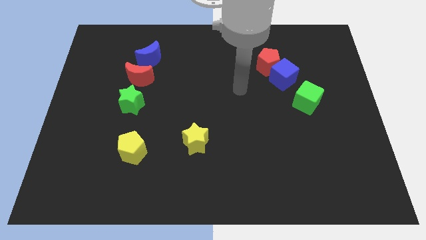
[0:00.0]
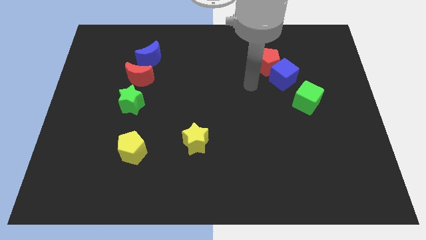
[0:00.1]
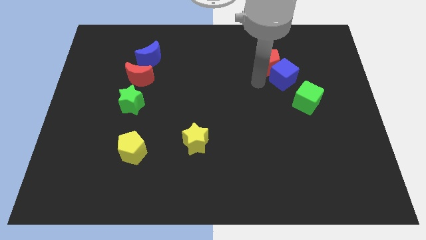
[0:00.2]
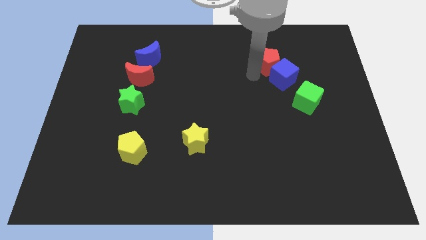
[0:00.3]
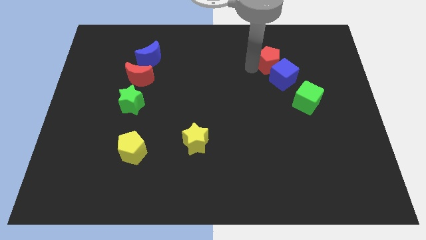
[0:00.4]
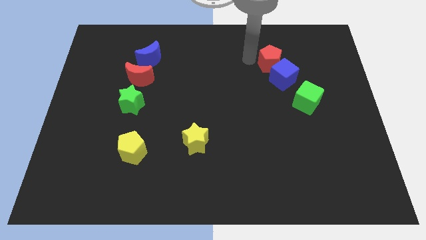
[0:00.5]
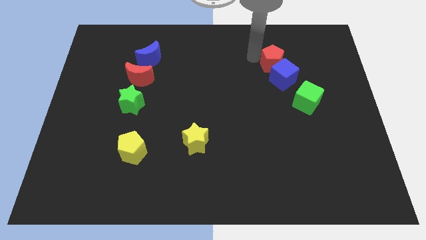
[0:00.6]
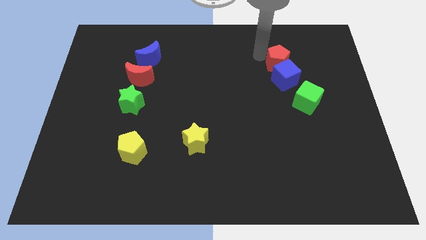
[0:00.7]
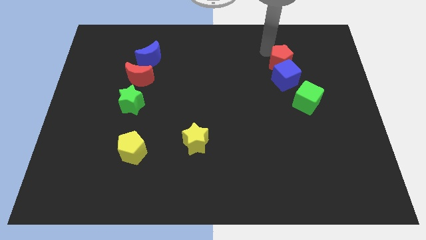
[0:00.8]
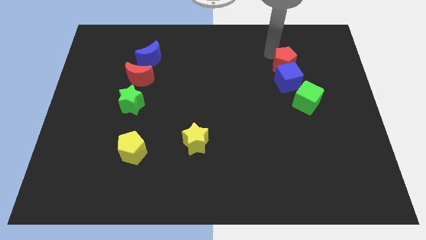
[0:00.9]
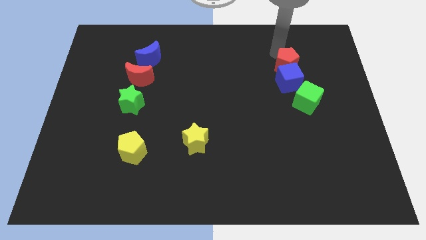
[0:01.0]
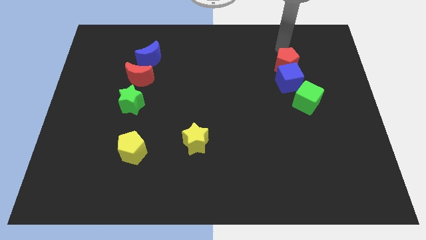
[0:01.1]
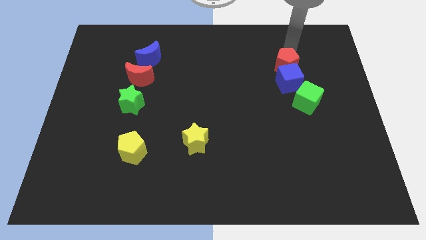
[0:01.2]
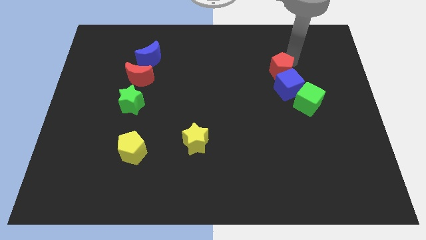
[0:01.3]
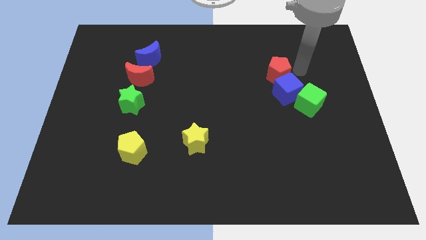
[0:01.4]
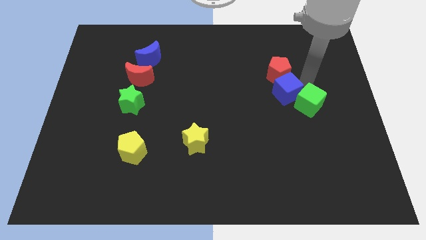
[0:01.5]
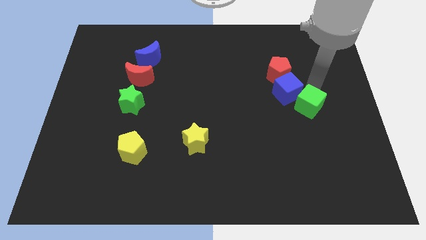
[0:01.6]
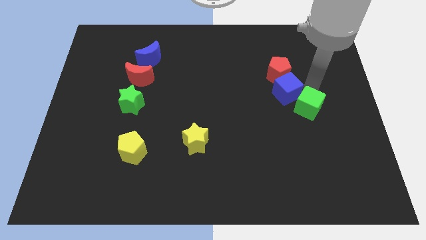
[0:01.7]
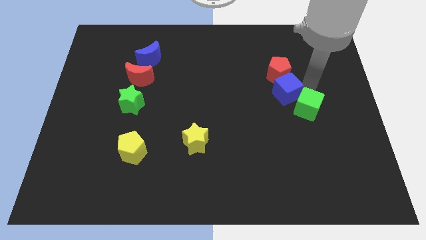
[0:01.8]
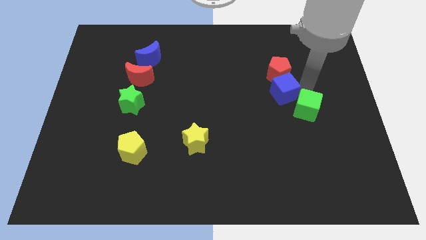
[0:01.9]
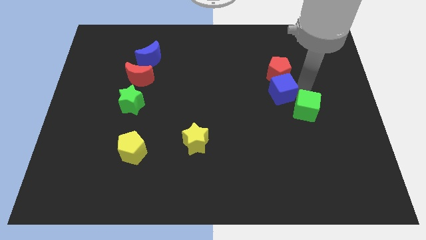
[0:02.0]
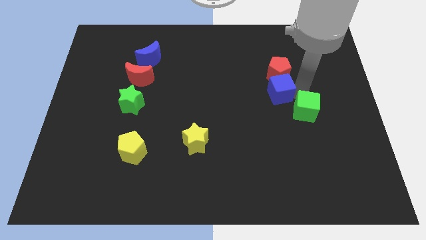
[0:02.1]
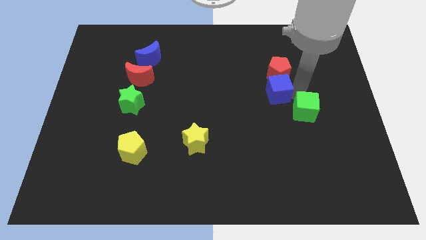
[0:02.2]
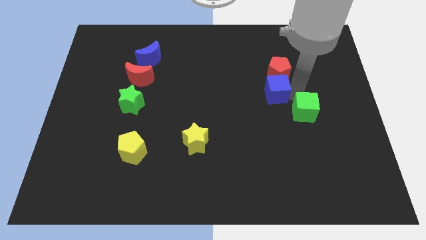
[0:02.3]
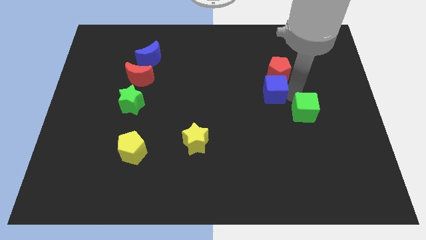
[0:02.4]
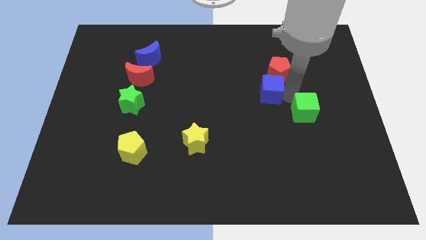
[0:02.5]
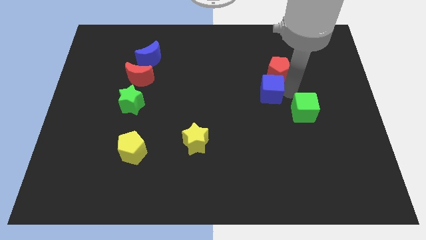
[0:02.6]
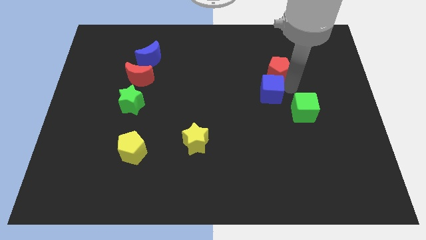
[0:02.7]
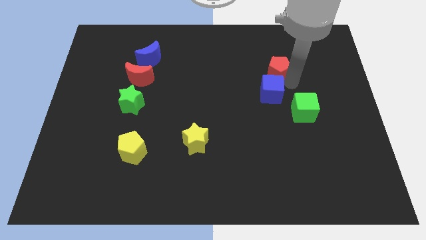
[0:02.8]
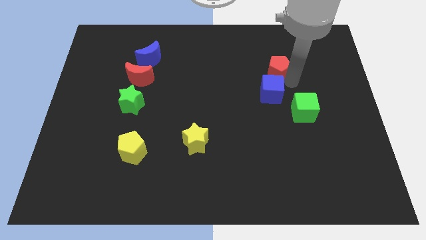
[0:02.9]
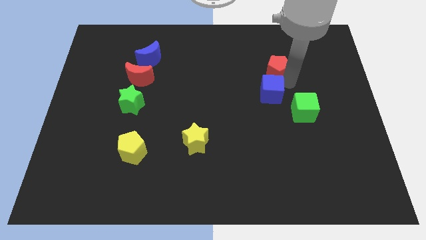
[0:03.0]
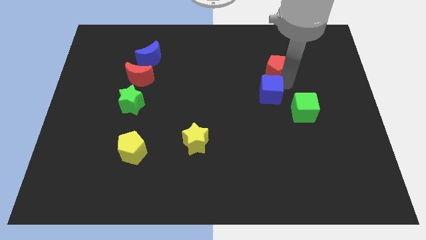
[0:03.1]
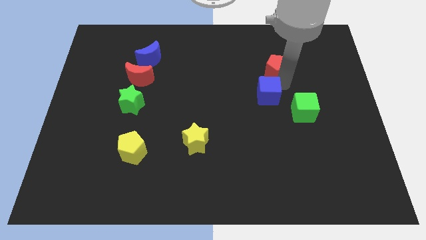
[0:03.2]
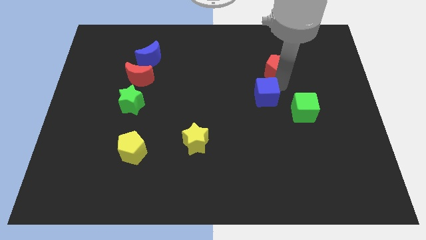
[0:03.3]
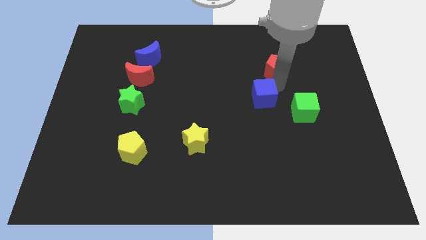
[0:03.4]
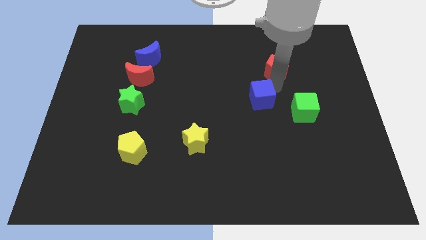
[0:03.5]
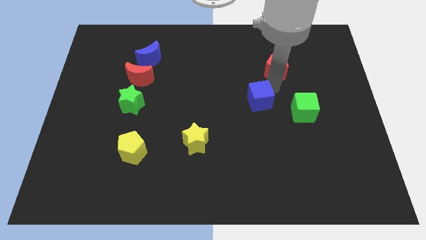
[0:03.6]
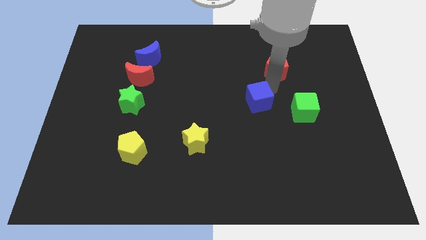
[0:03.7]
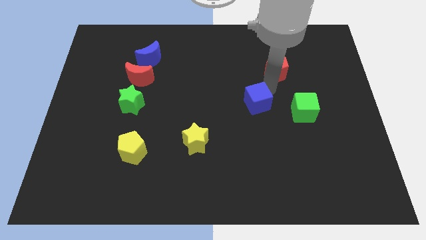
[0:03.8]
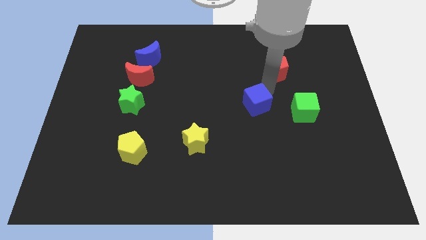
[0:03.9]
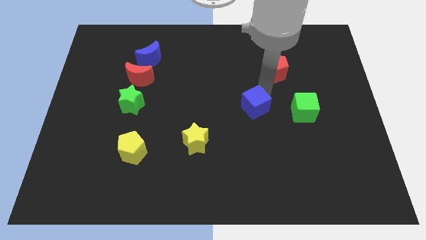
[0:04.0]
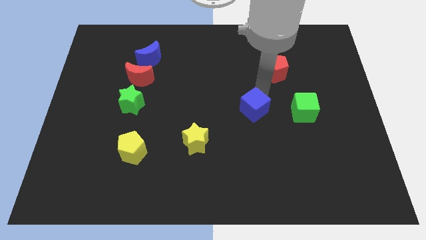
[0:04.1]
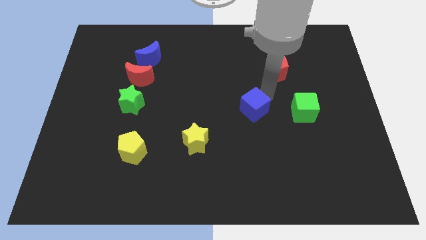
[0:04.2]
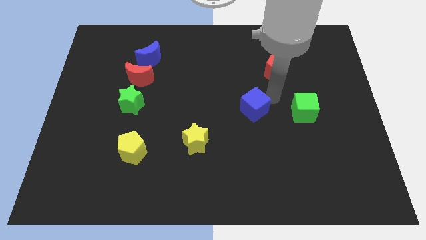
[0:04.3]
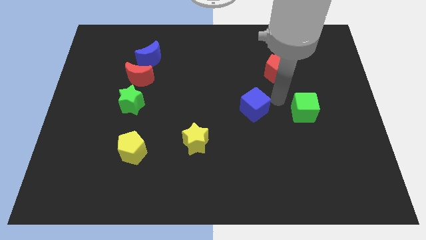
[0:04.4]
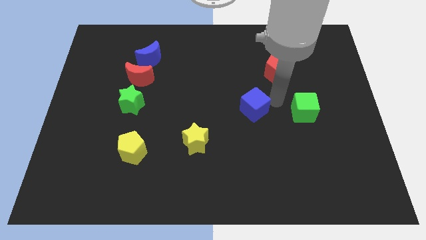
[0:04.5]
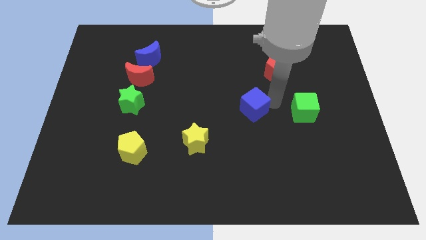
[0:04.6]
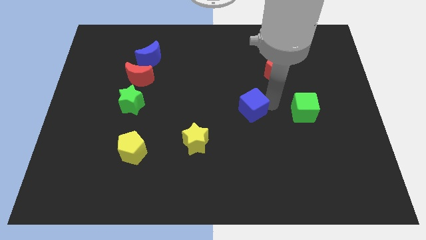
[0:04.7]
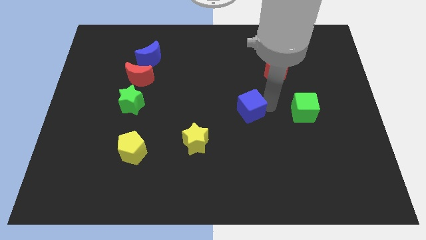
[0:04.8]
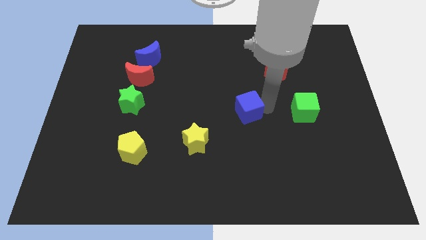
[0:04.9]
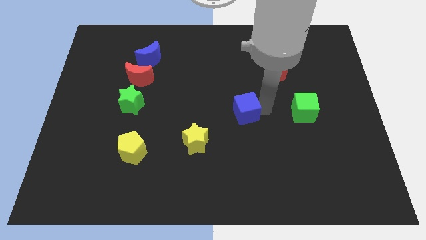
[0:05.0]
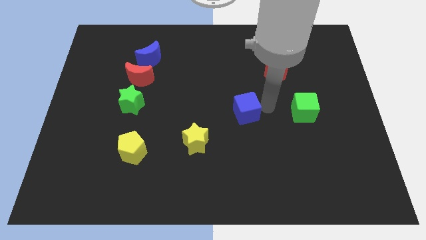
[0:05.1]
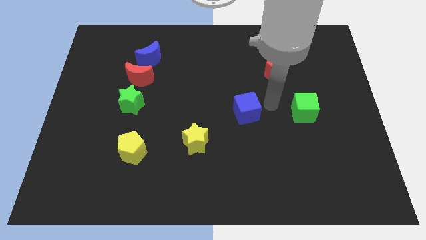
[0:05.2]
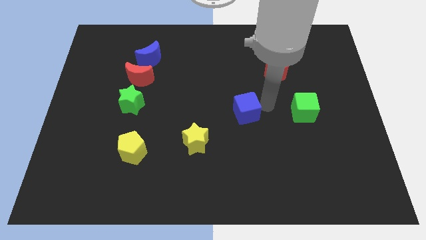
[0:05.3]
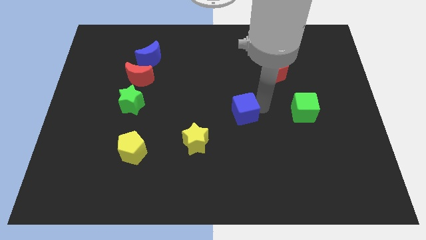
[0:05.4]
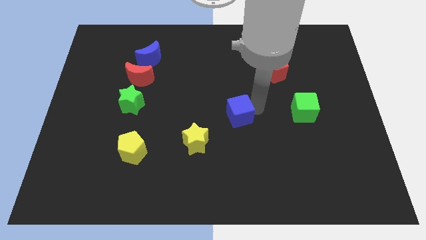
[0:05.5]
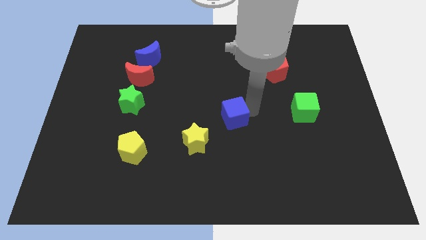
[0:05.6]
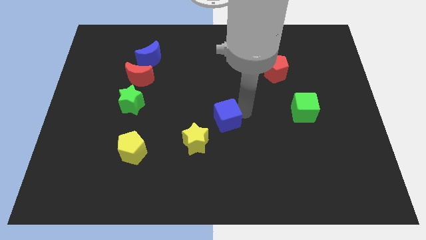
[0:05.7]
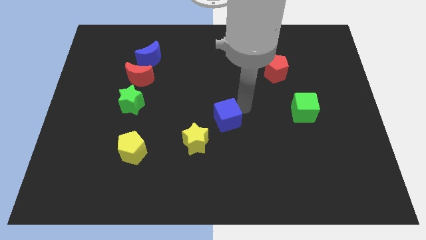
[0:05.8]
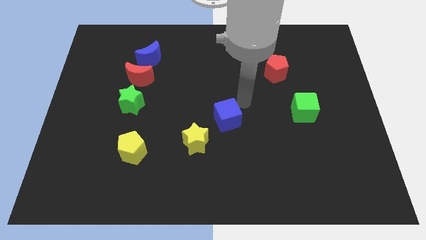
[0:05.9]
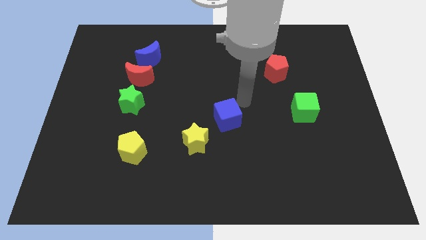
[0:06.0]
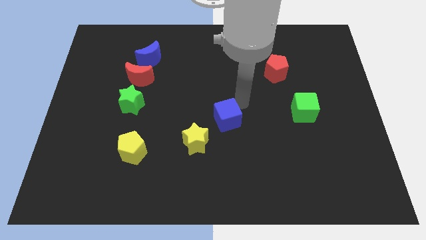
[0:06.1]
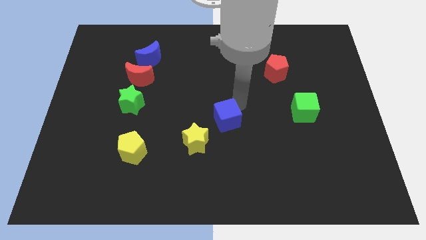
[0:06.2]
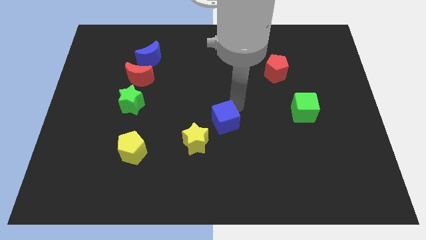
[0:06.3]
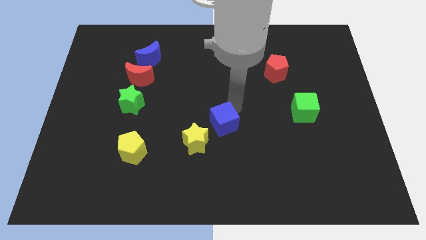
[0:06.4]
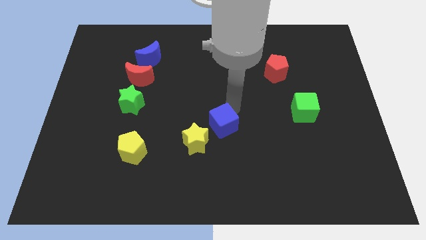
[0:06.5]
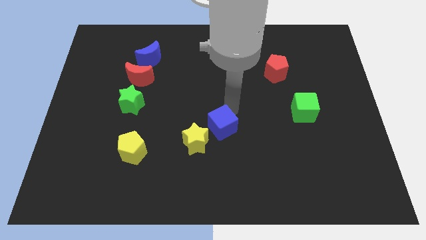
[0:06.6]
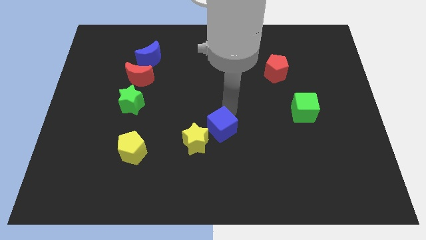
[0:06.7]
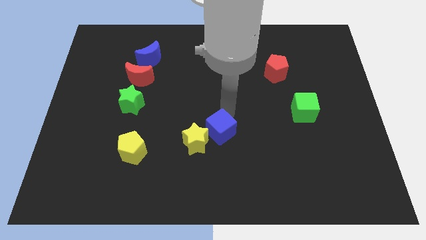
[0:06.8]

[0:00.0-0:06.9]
slide the blue cube close to the yellow star
